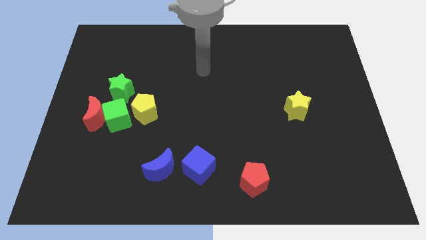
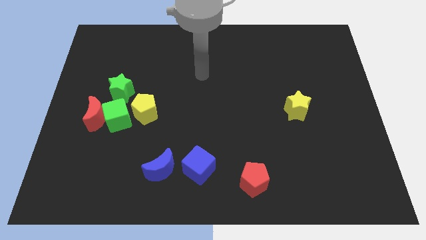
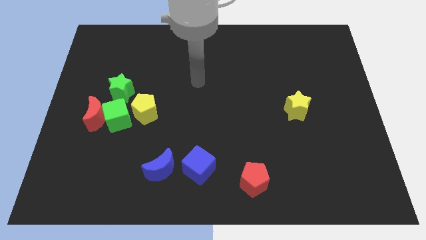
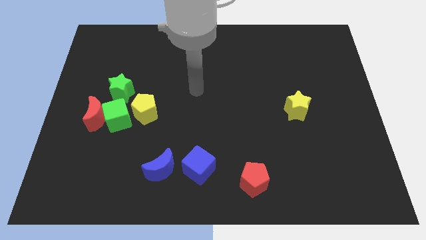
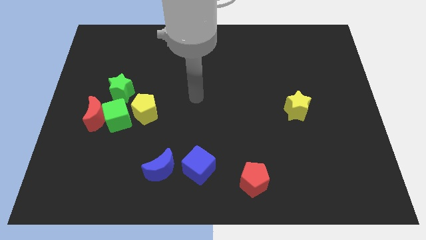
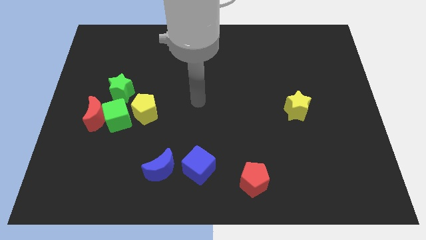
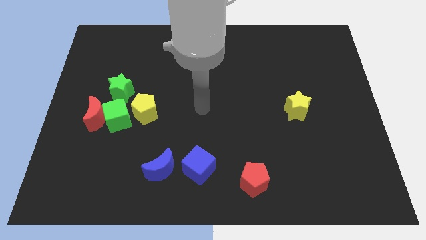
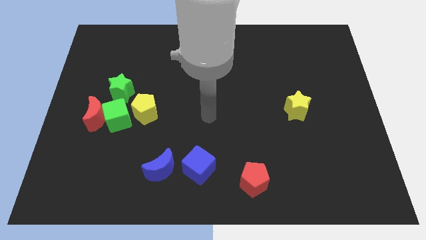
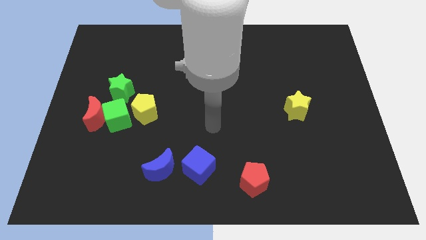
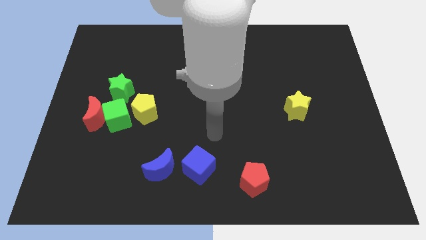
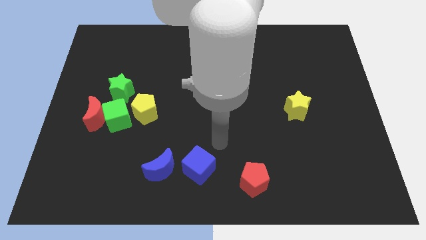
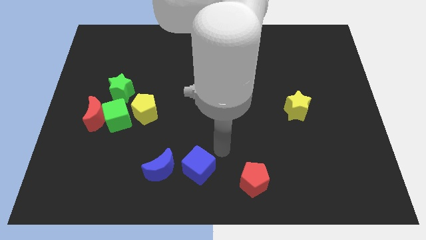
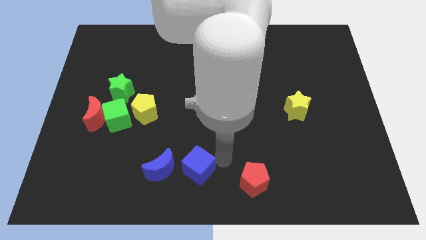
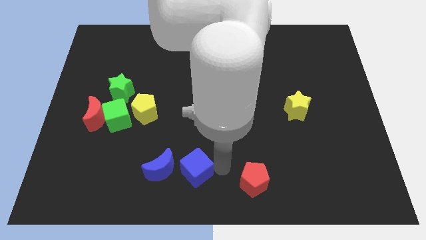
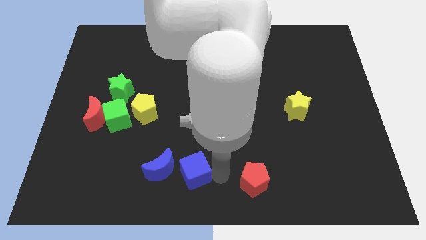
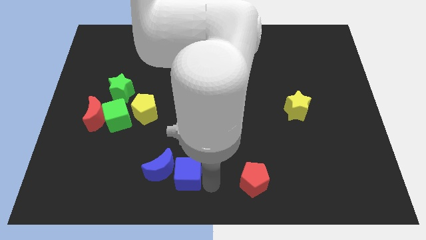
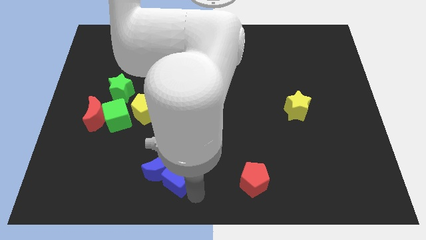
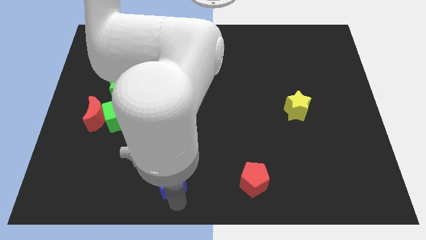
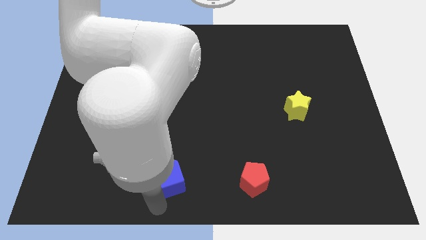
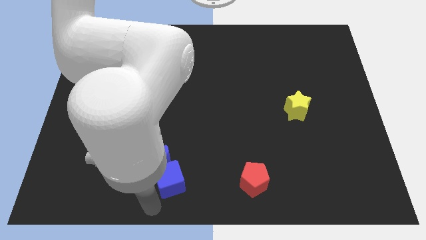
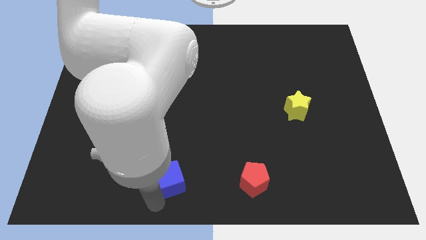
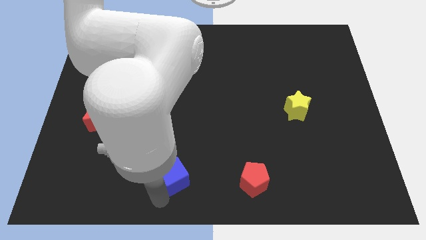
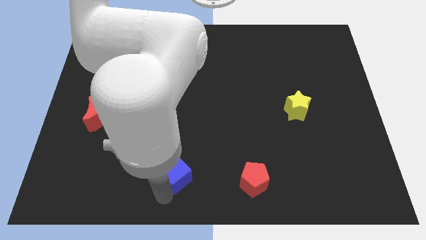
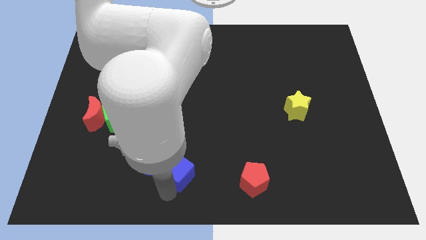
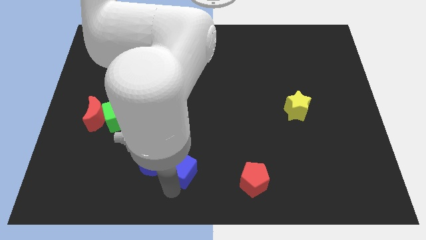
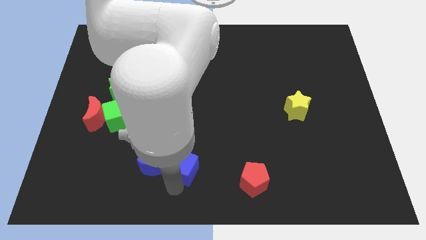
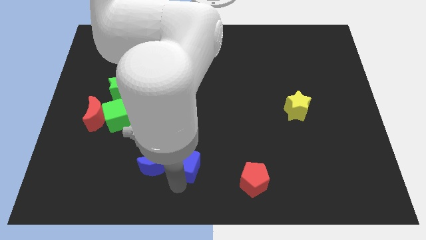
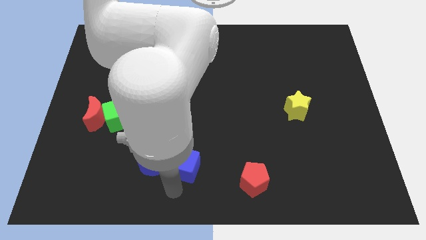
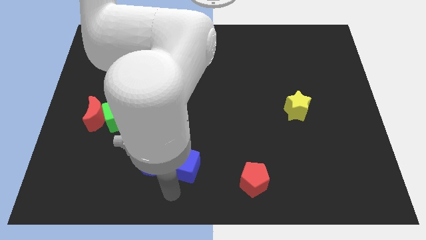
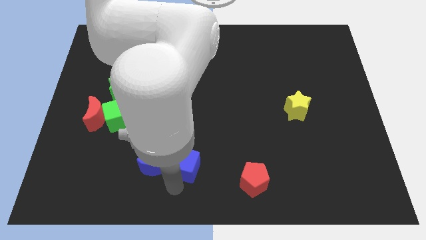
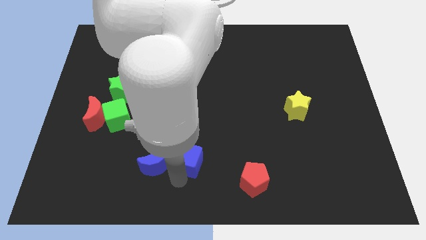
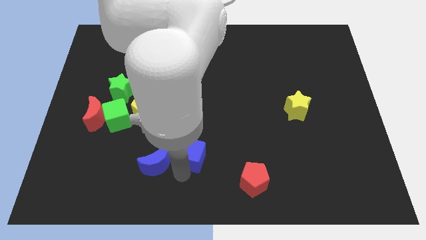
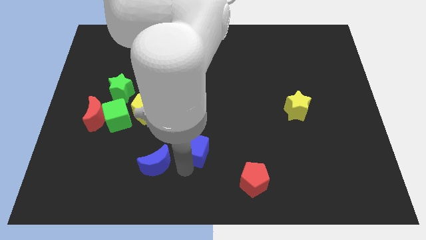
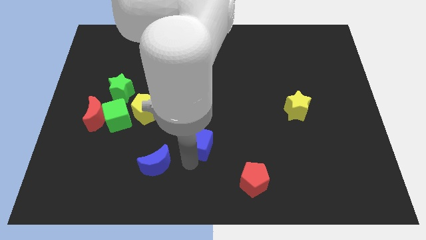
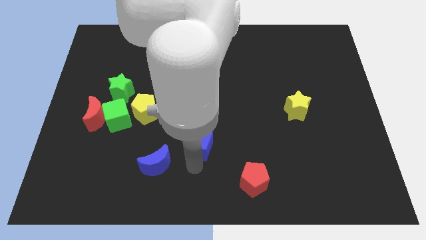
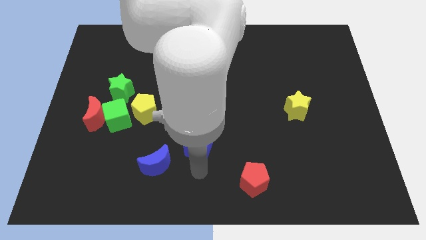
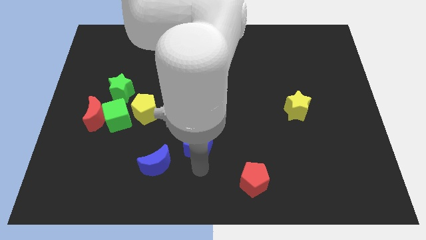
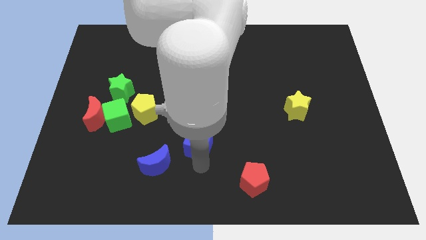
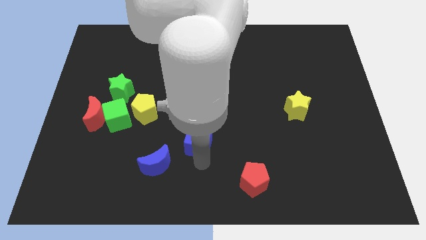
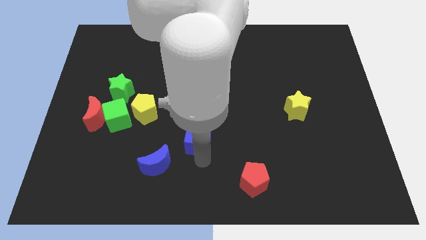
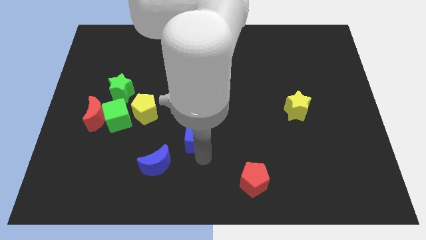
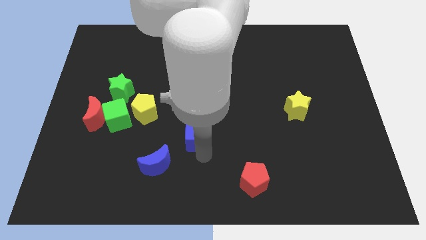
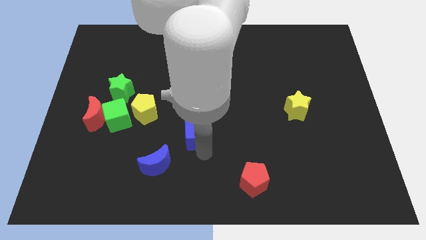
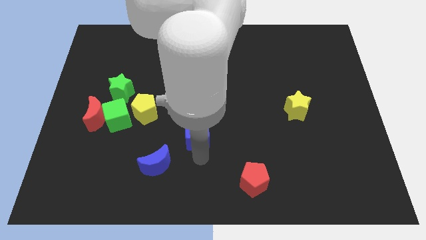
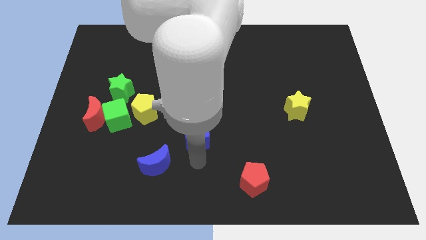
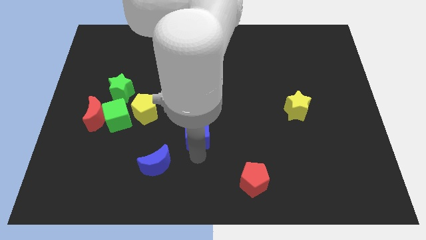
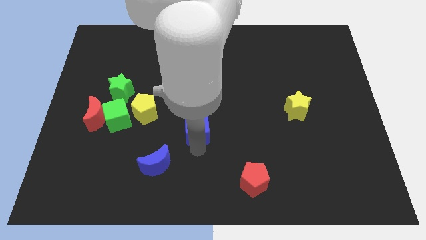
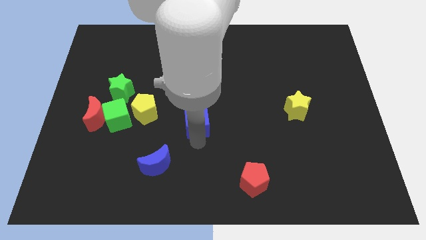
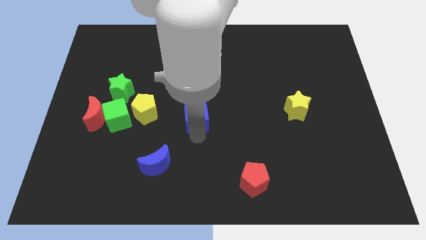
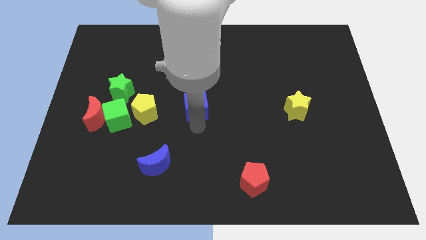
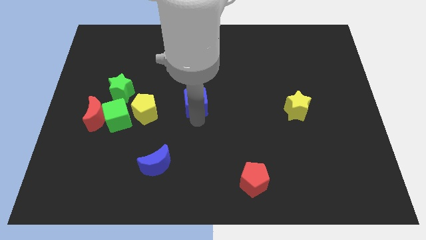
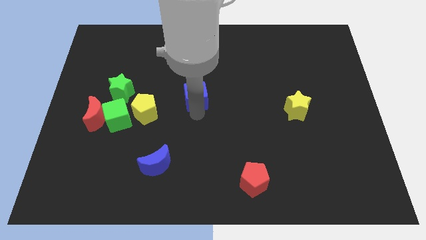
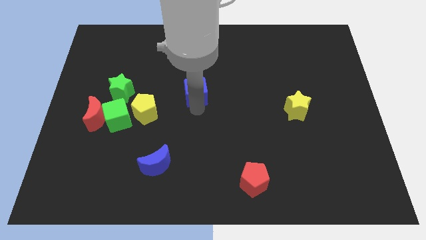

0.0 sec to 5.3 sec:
push the blue cube up

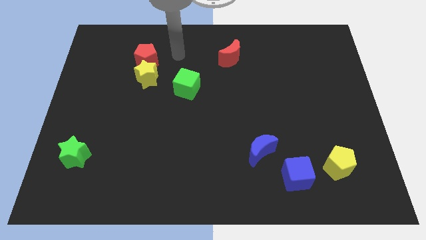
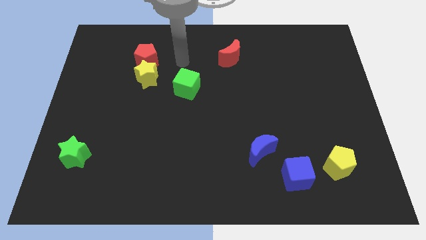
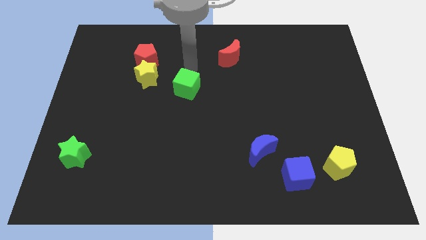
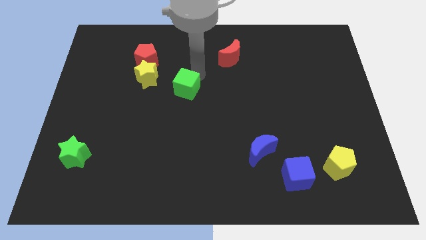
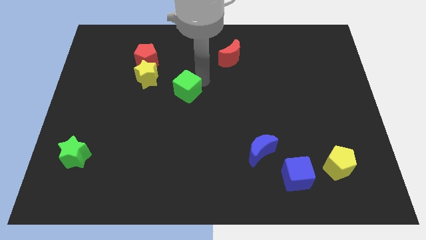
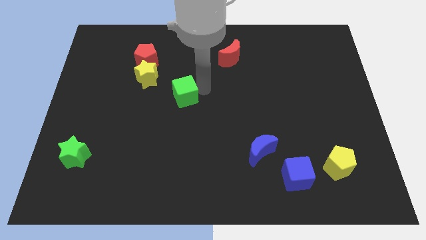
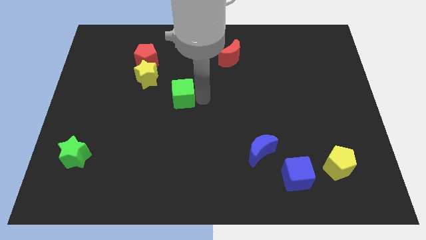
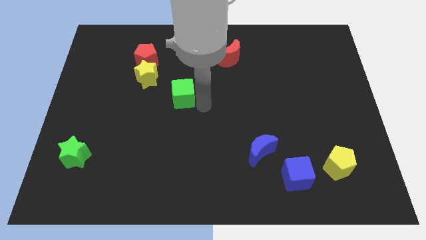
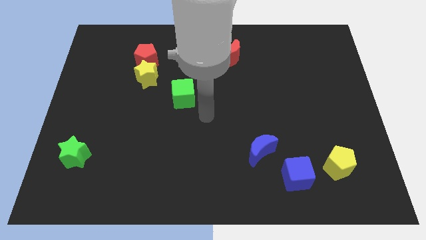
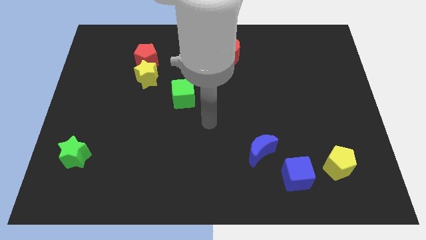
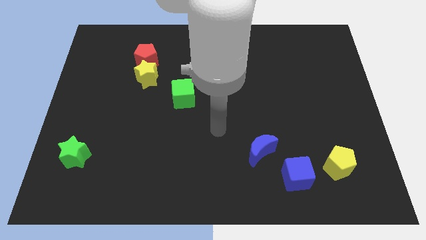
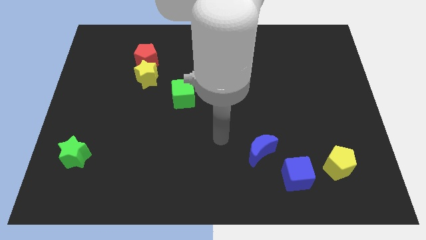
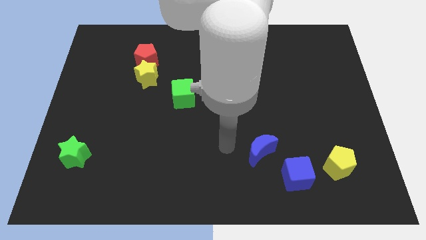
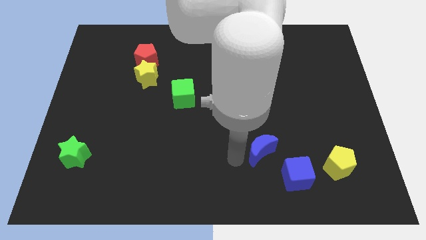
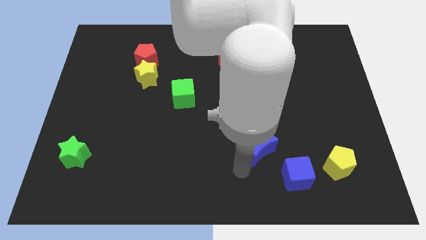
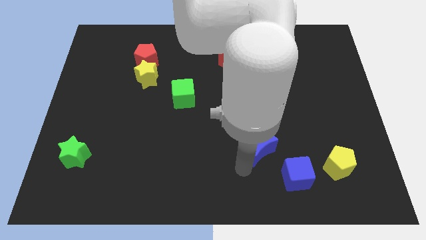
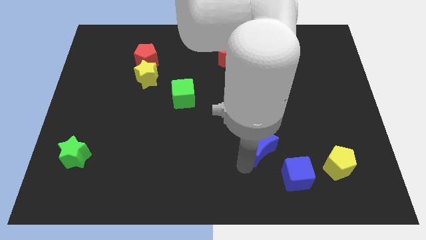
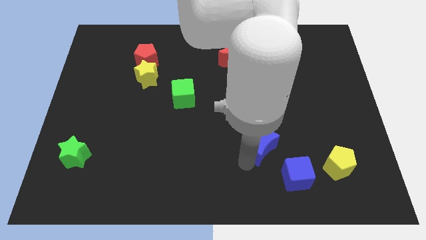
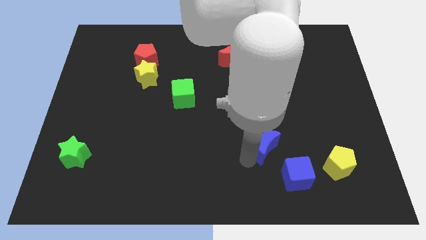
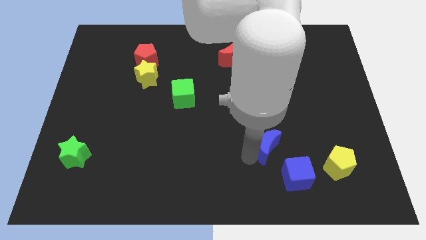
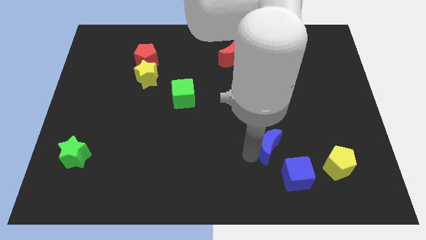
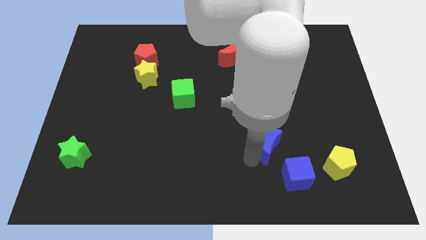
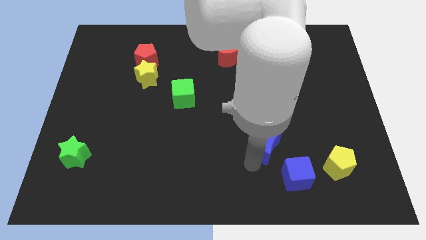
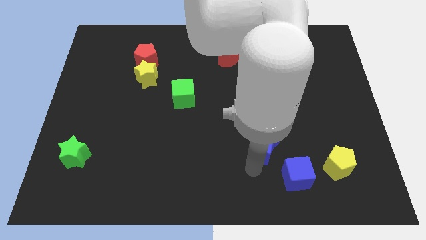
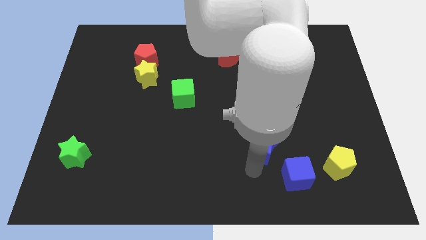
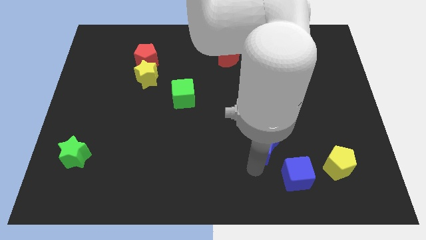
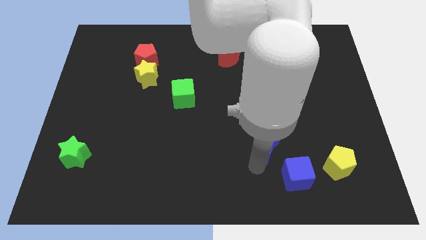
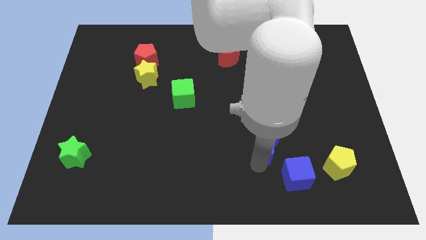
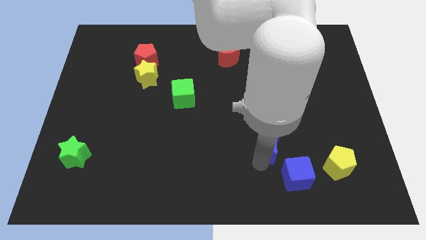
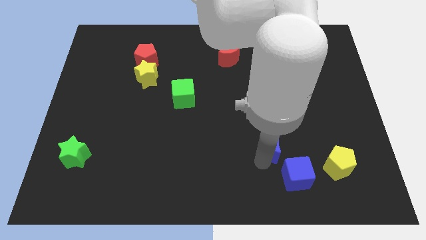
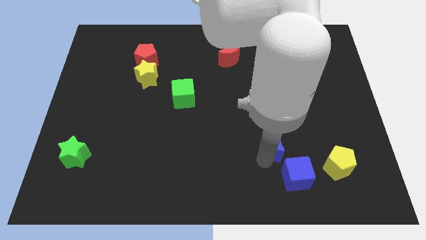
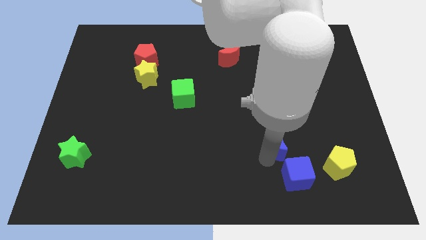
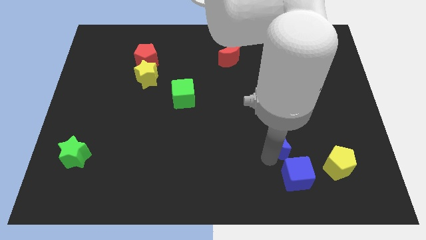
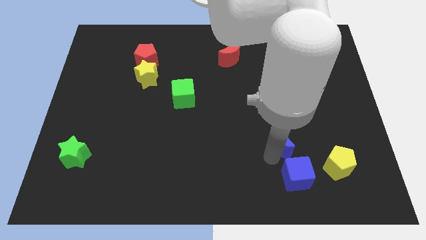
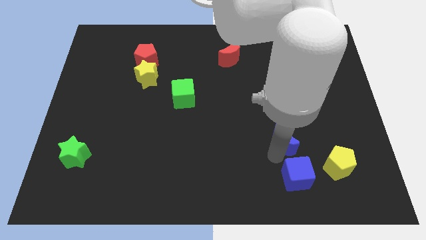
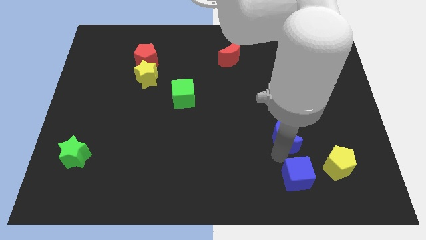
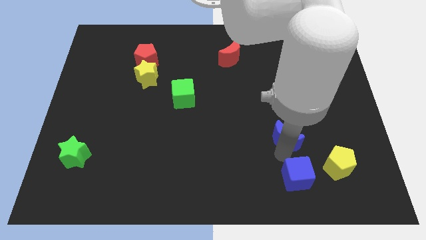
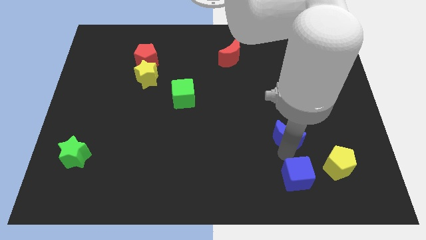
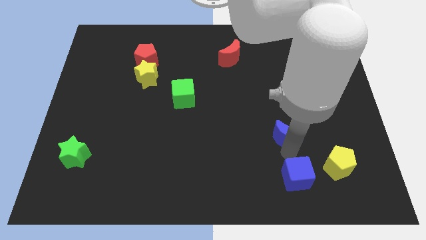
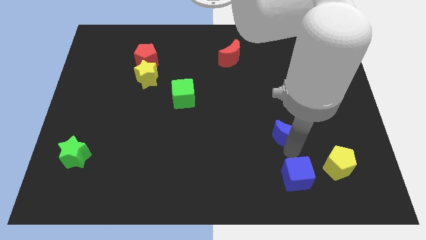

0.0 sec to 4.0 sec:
slide the blue moon a bit up and then right
